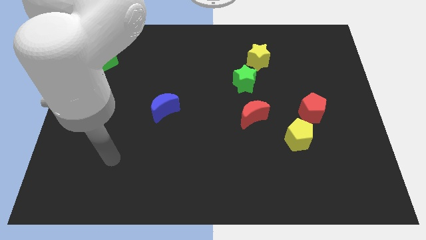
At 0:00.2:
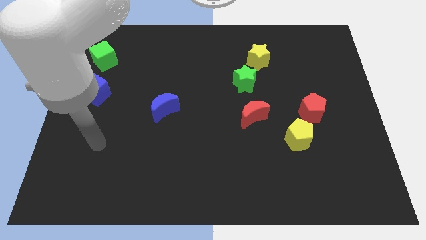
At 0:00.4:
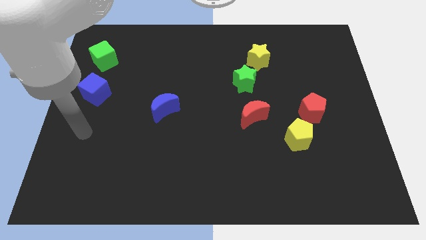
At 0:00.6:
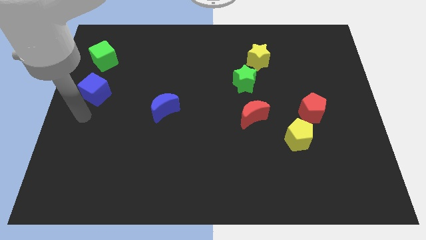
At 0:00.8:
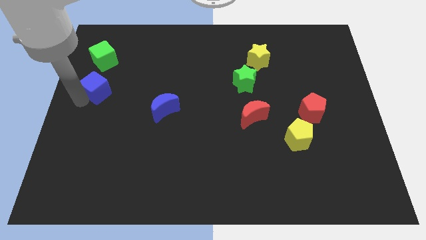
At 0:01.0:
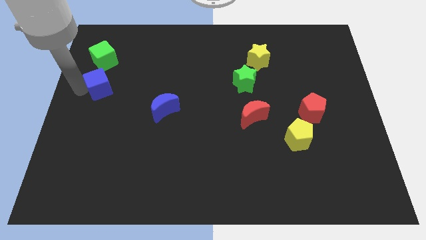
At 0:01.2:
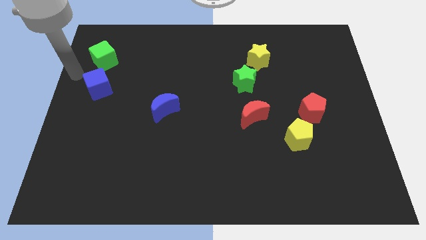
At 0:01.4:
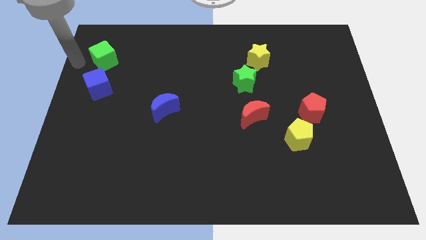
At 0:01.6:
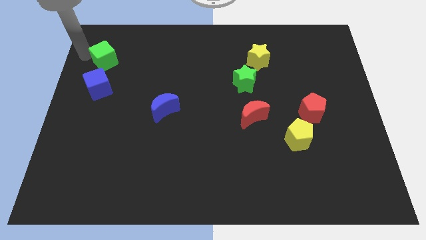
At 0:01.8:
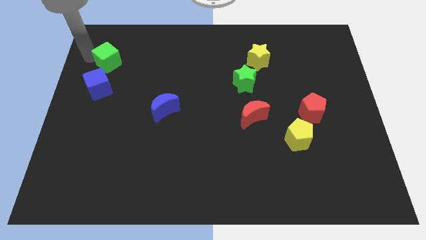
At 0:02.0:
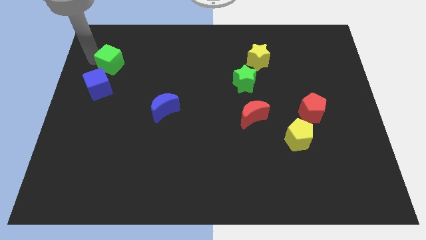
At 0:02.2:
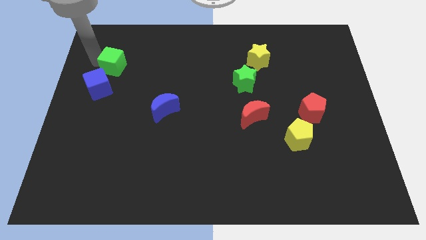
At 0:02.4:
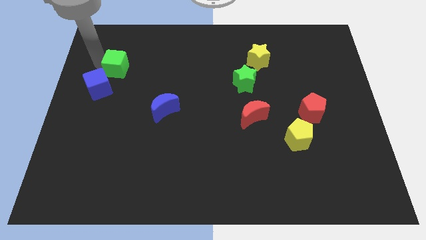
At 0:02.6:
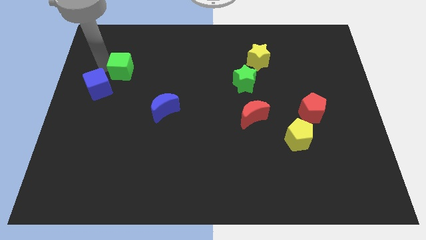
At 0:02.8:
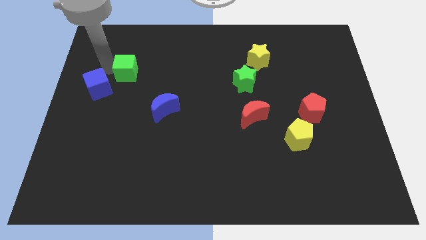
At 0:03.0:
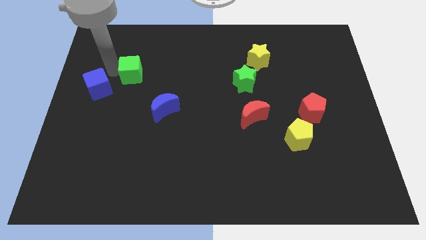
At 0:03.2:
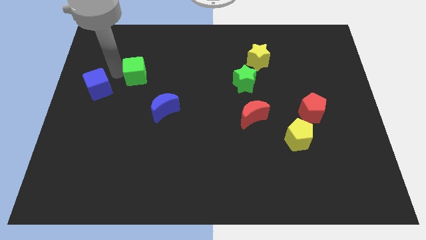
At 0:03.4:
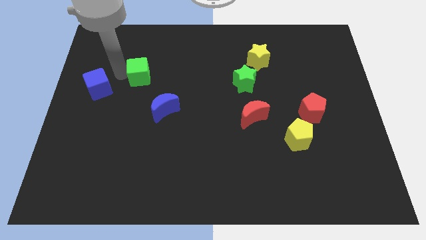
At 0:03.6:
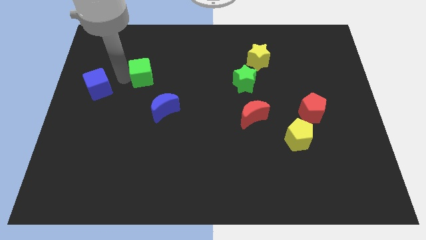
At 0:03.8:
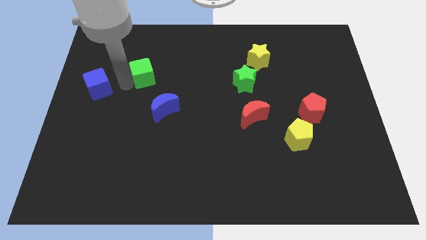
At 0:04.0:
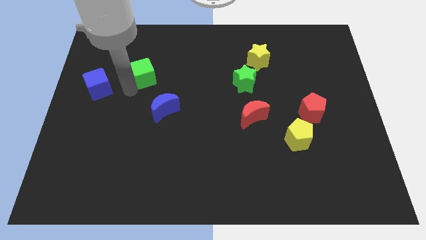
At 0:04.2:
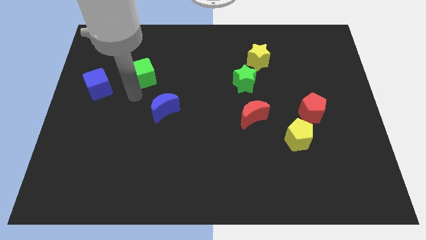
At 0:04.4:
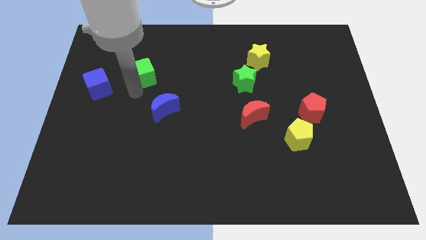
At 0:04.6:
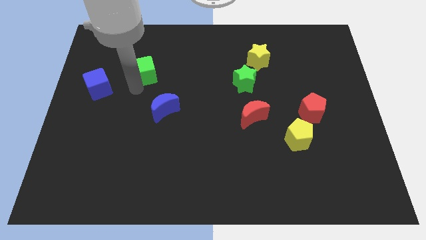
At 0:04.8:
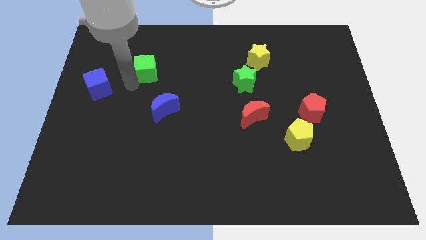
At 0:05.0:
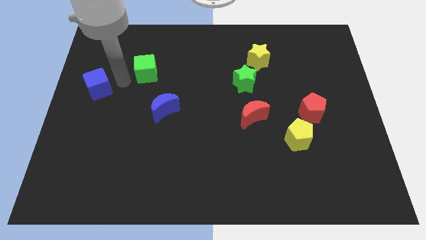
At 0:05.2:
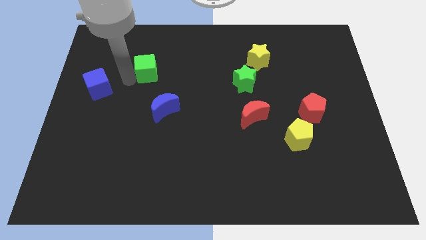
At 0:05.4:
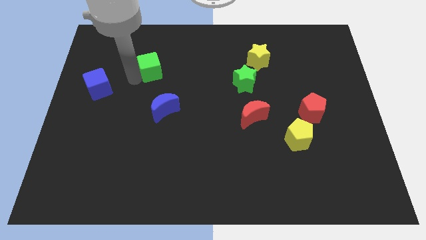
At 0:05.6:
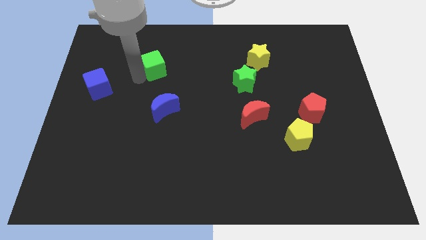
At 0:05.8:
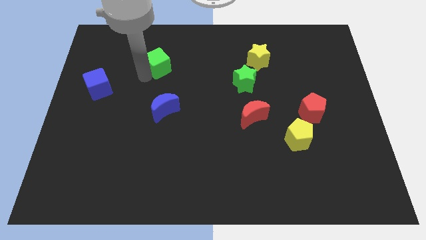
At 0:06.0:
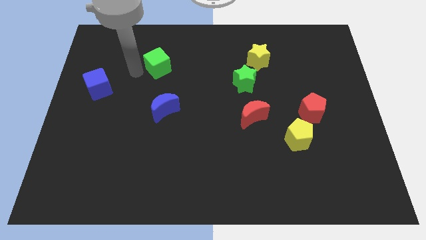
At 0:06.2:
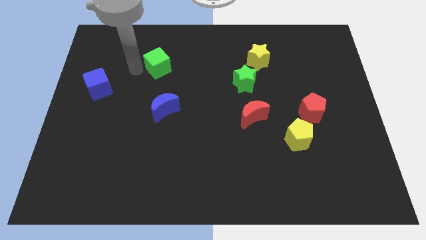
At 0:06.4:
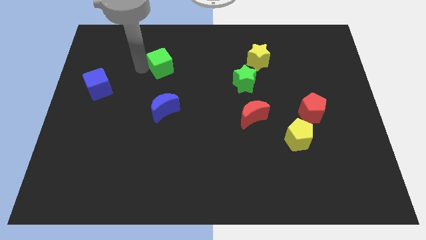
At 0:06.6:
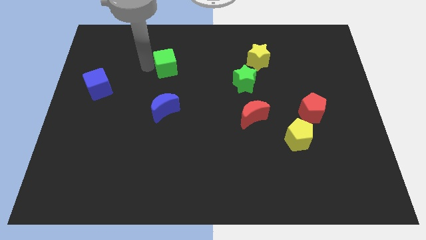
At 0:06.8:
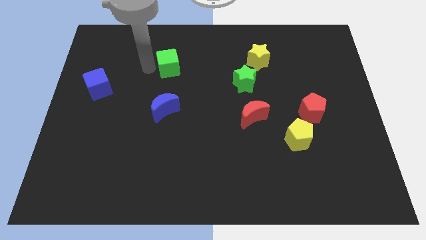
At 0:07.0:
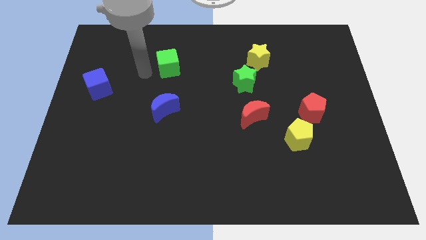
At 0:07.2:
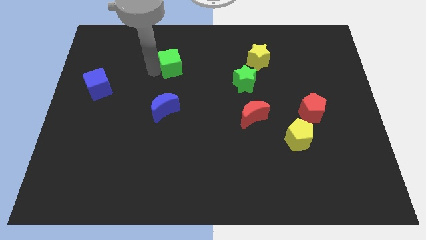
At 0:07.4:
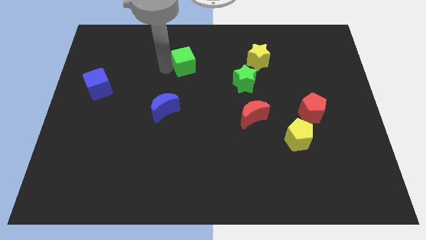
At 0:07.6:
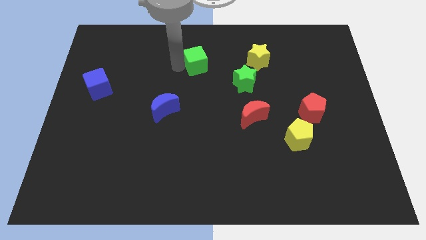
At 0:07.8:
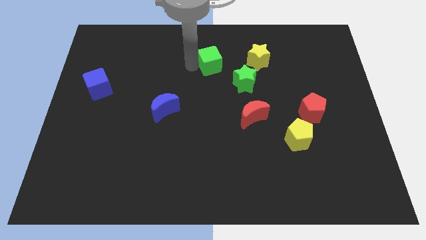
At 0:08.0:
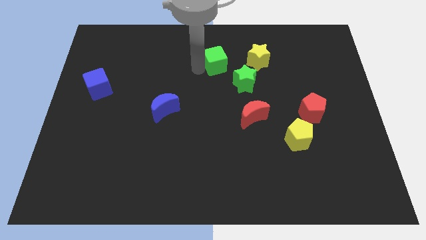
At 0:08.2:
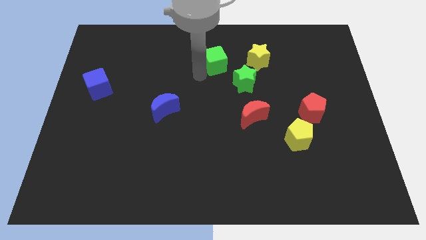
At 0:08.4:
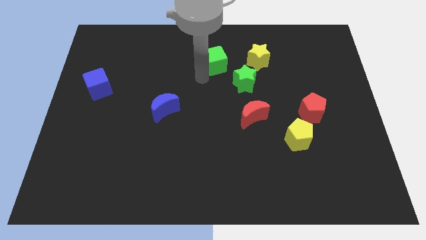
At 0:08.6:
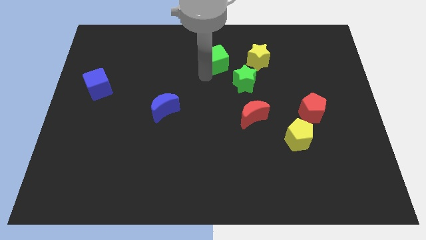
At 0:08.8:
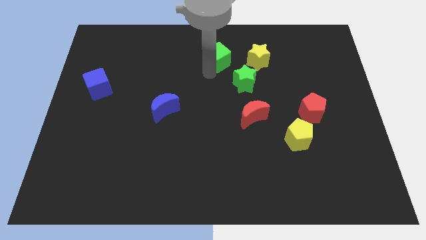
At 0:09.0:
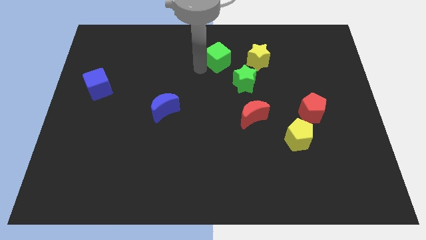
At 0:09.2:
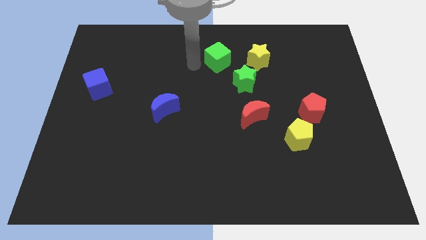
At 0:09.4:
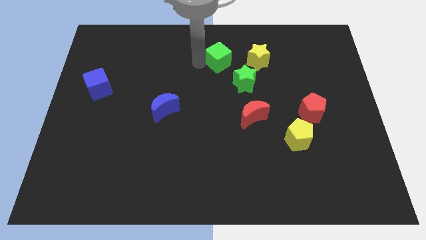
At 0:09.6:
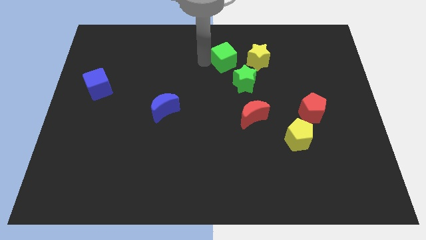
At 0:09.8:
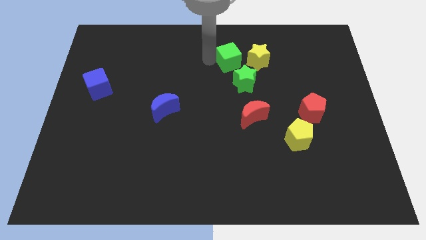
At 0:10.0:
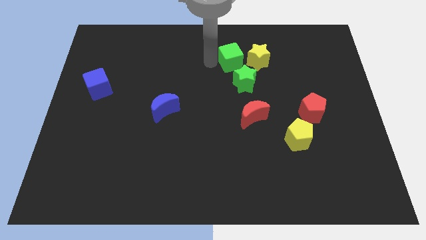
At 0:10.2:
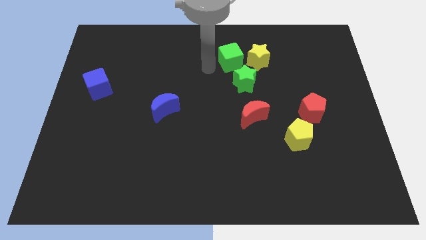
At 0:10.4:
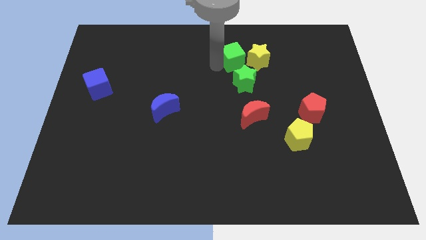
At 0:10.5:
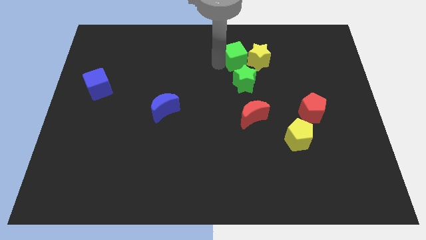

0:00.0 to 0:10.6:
push the green cube towards the yellow star

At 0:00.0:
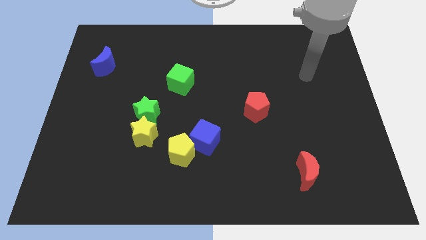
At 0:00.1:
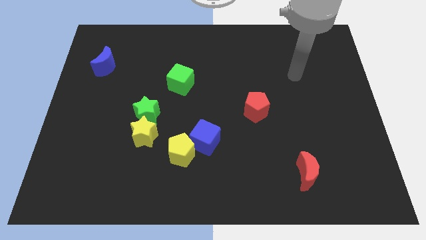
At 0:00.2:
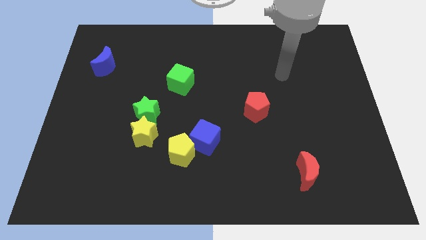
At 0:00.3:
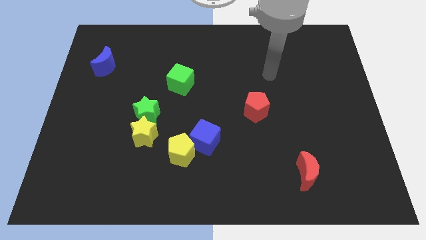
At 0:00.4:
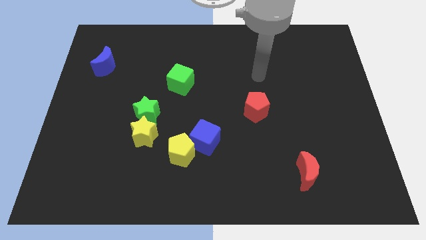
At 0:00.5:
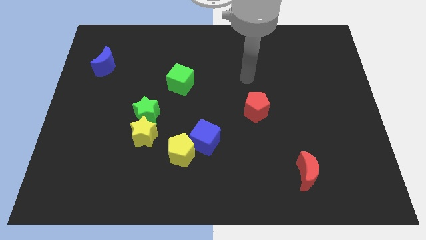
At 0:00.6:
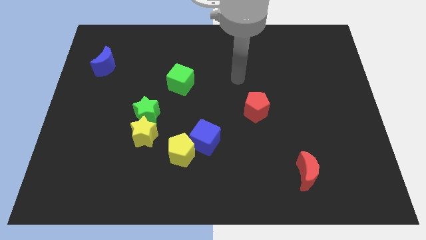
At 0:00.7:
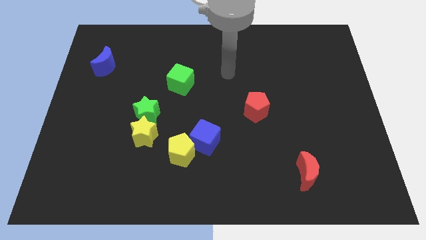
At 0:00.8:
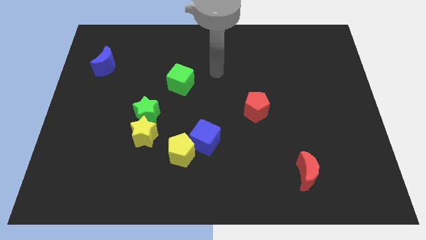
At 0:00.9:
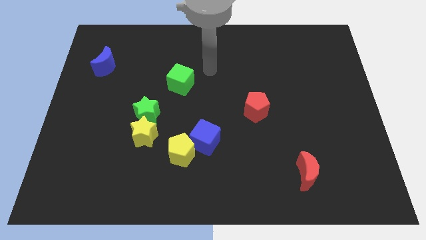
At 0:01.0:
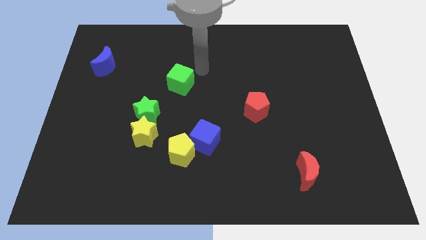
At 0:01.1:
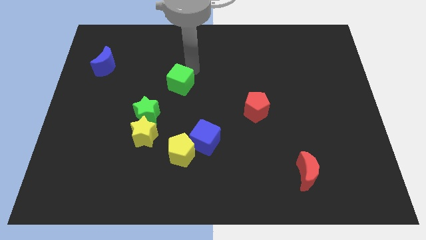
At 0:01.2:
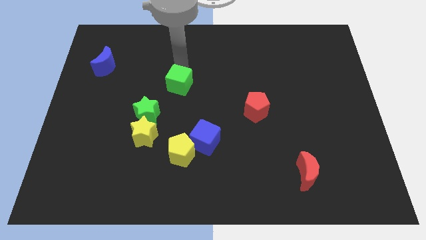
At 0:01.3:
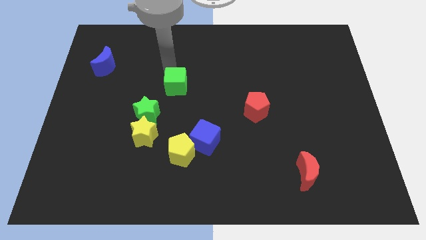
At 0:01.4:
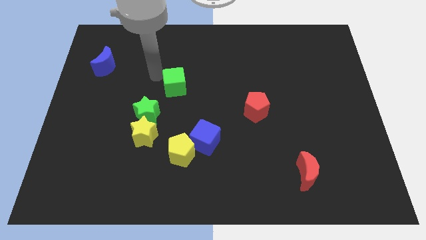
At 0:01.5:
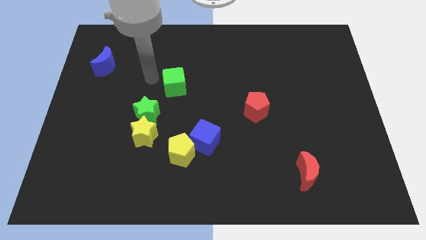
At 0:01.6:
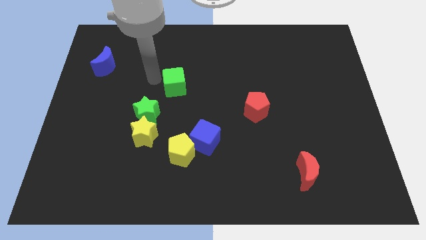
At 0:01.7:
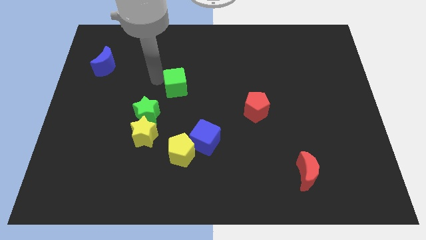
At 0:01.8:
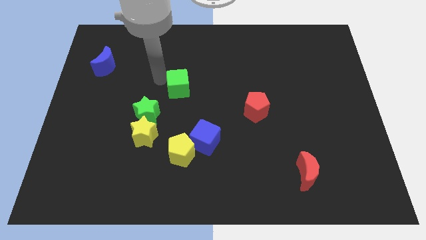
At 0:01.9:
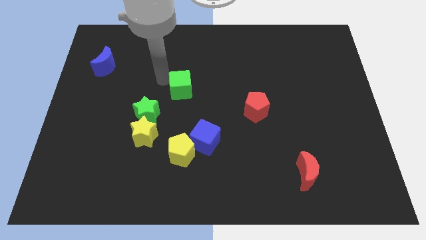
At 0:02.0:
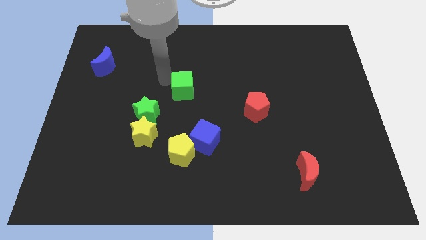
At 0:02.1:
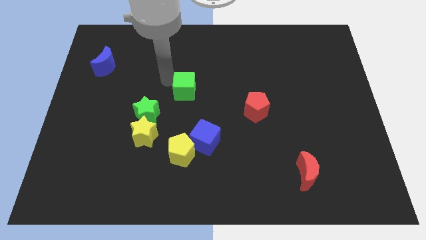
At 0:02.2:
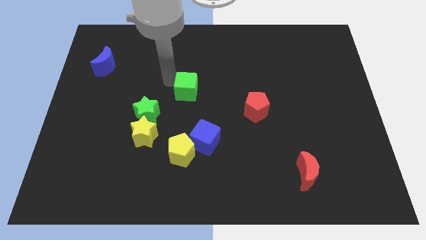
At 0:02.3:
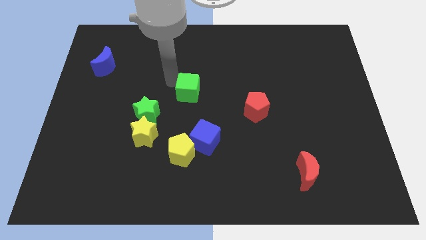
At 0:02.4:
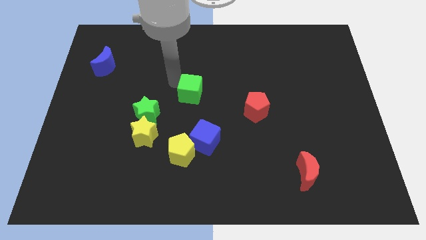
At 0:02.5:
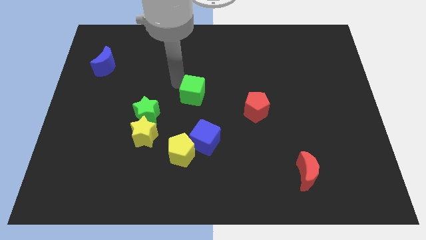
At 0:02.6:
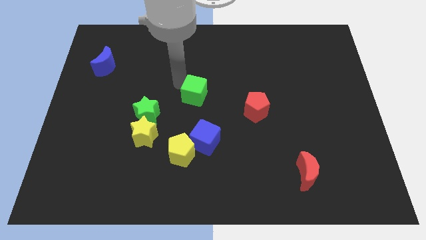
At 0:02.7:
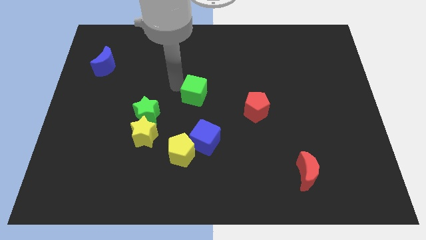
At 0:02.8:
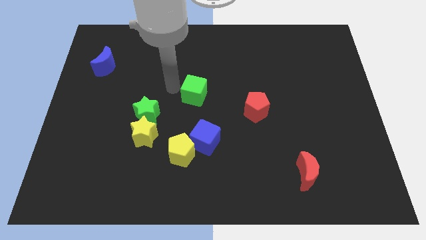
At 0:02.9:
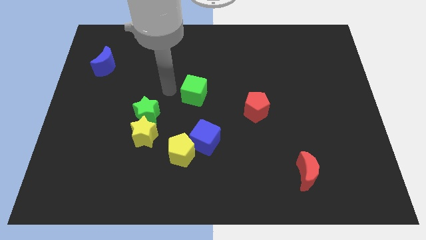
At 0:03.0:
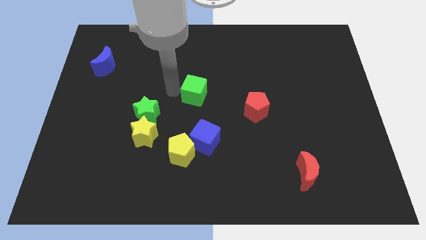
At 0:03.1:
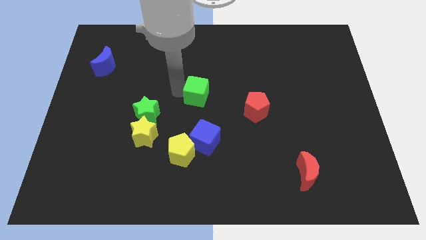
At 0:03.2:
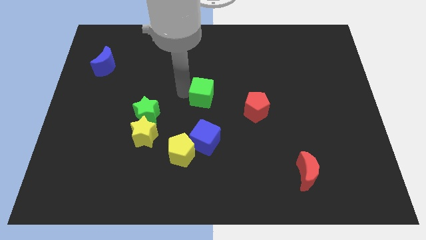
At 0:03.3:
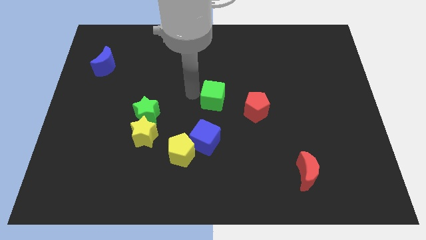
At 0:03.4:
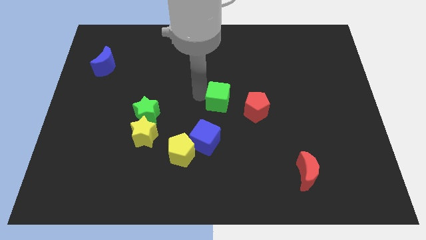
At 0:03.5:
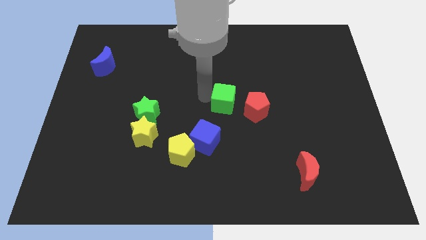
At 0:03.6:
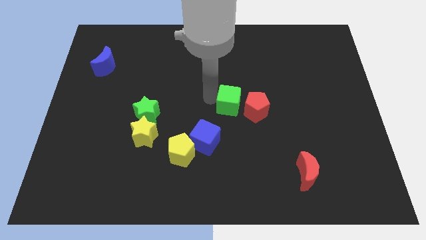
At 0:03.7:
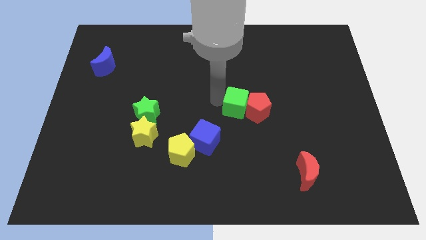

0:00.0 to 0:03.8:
push the green cube next to the red pentagon
